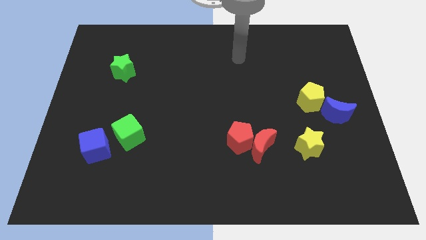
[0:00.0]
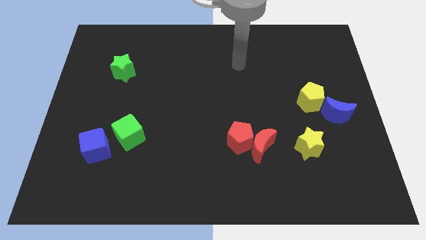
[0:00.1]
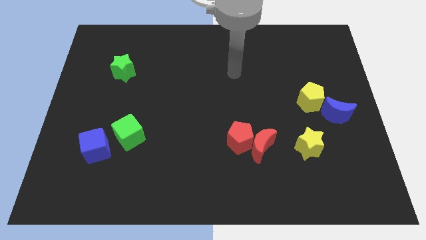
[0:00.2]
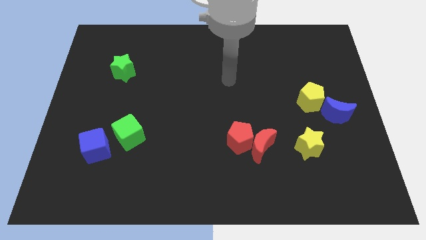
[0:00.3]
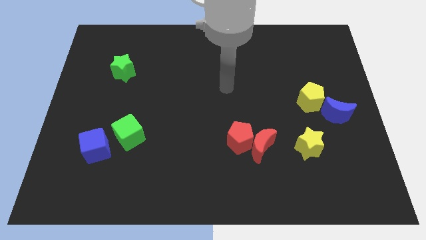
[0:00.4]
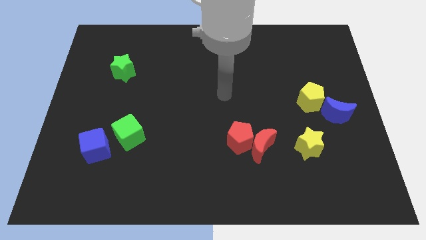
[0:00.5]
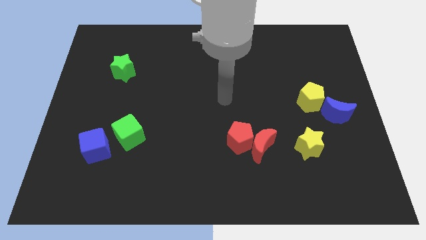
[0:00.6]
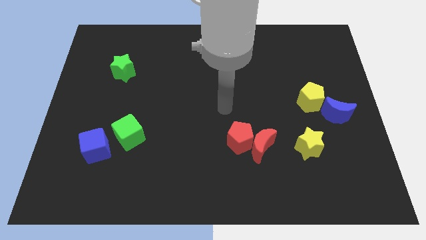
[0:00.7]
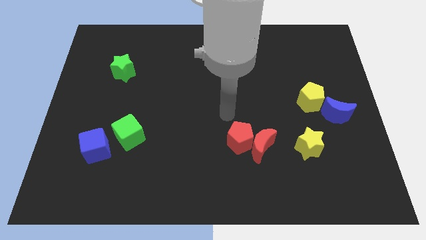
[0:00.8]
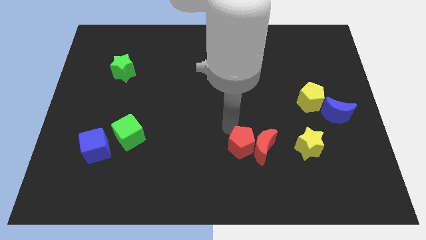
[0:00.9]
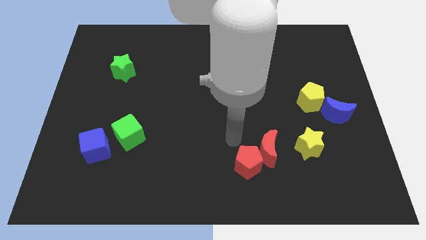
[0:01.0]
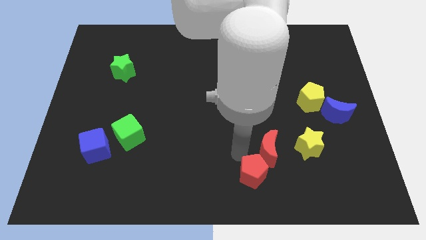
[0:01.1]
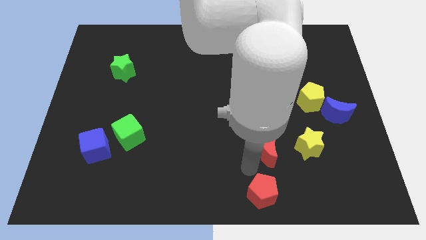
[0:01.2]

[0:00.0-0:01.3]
pull the red moon apart from the red pentagon

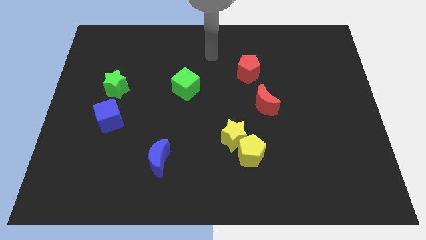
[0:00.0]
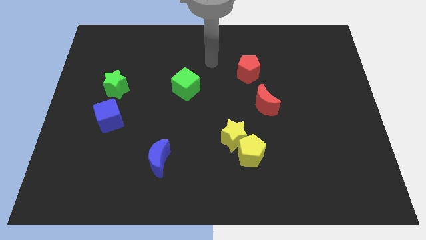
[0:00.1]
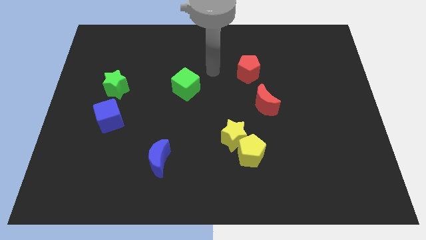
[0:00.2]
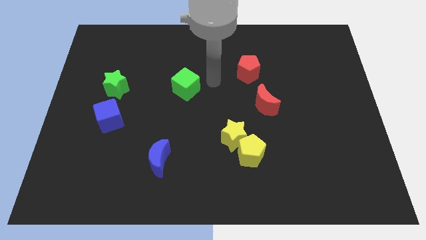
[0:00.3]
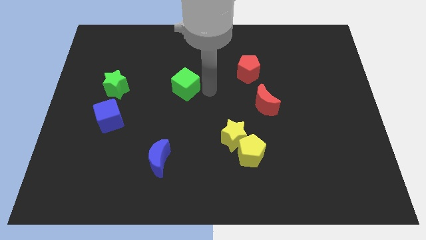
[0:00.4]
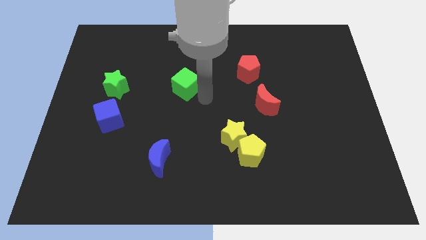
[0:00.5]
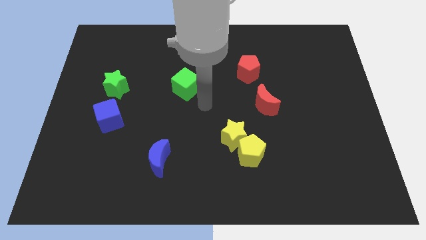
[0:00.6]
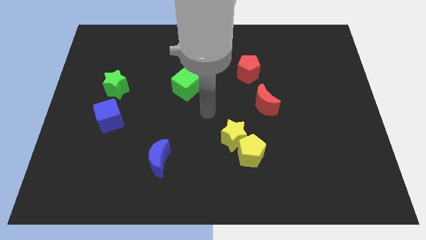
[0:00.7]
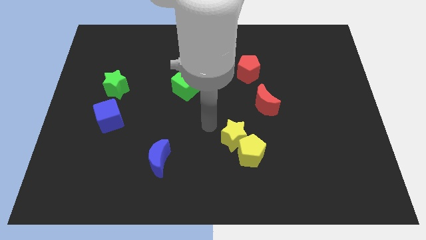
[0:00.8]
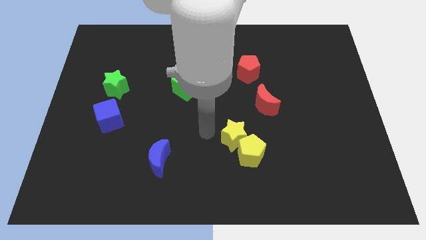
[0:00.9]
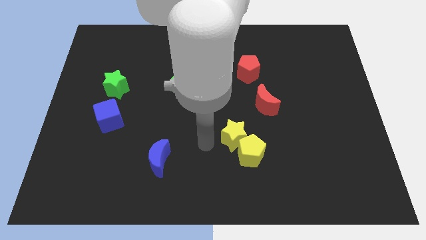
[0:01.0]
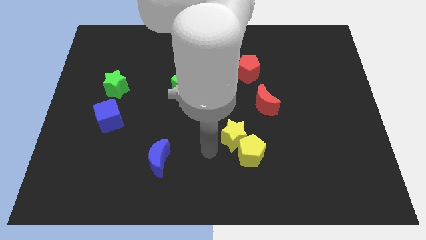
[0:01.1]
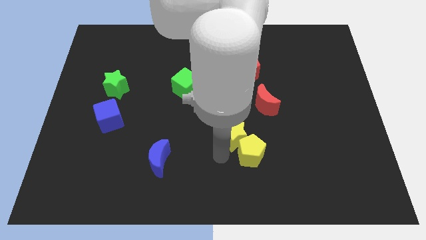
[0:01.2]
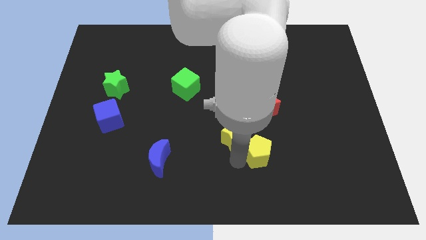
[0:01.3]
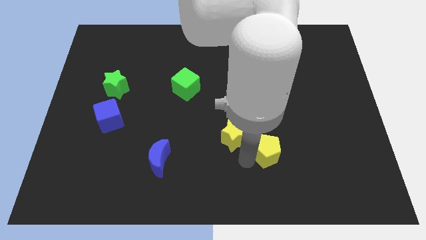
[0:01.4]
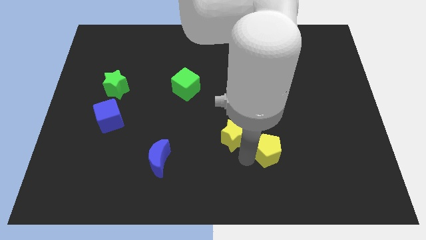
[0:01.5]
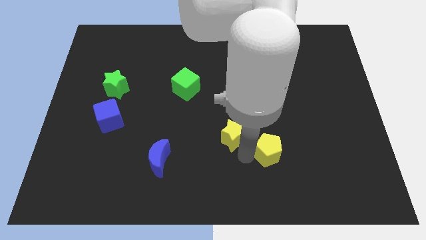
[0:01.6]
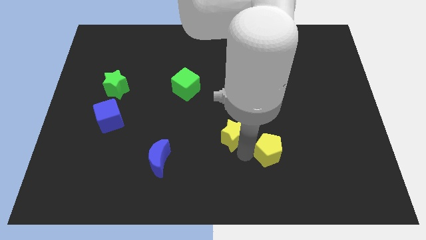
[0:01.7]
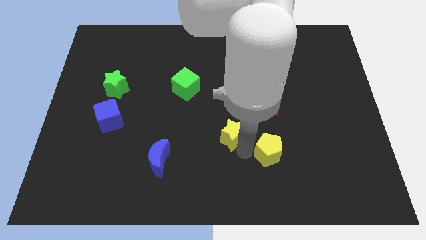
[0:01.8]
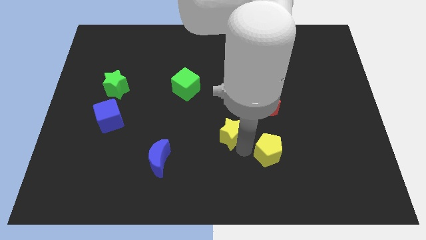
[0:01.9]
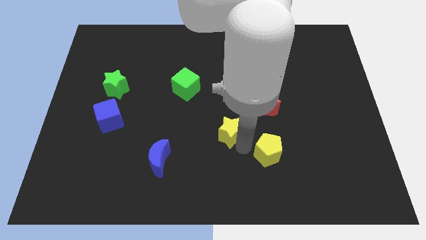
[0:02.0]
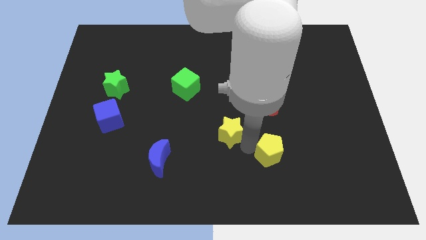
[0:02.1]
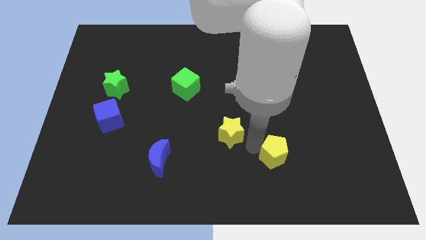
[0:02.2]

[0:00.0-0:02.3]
separate the yellow star from the yellow pentagon

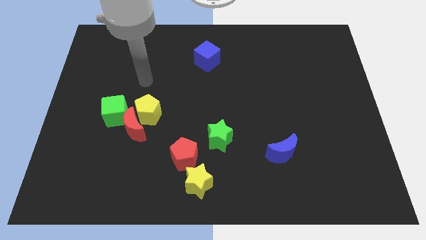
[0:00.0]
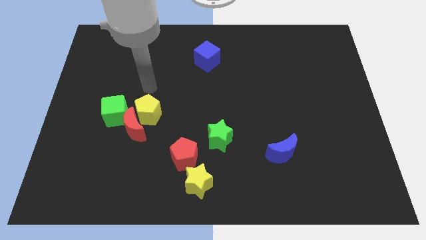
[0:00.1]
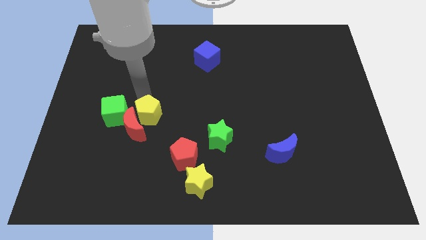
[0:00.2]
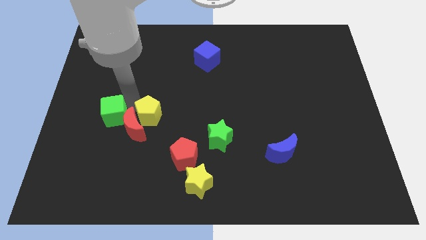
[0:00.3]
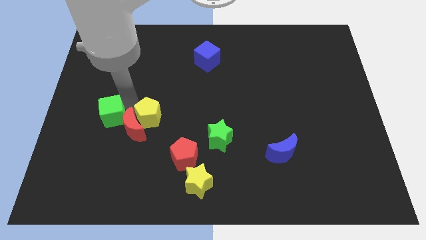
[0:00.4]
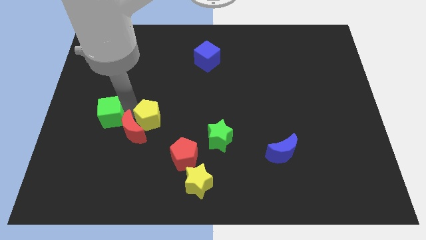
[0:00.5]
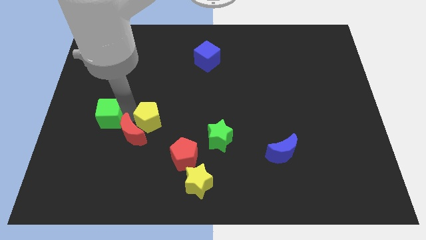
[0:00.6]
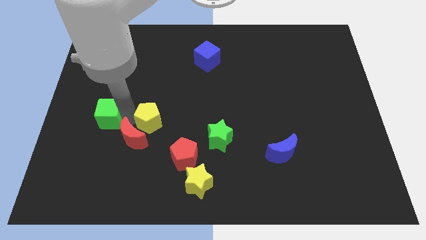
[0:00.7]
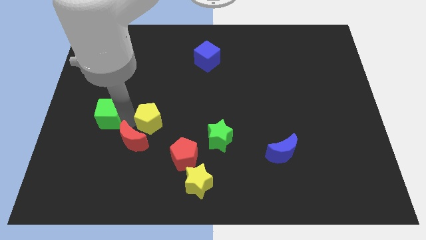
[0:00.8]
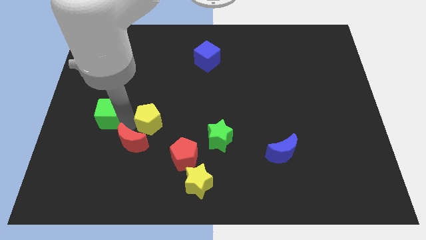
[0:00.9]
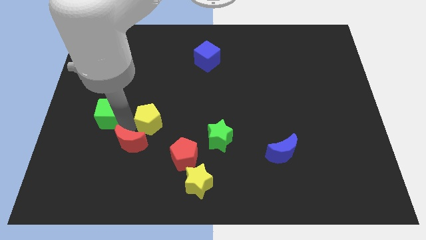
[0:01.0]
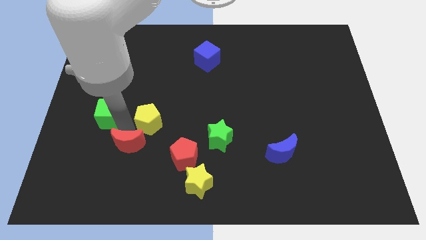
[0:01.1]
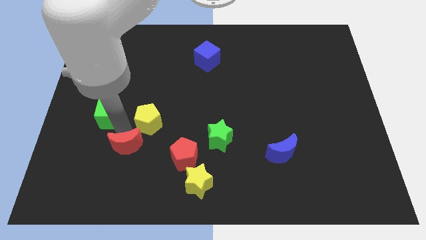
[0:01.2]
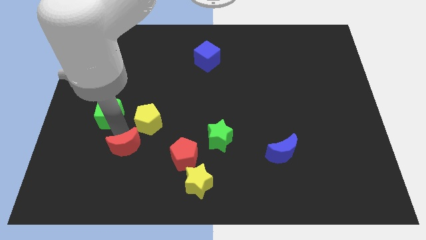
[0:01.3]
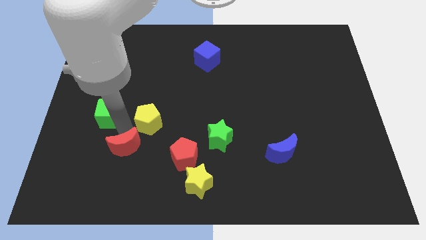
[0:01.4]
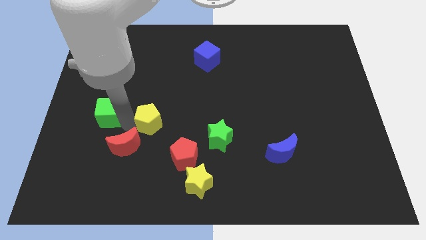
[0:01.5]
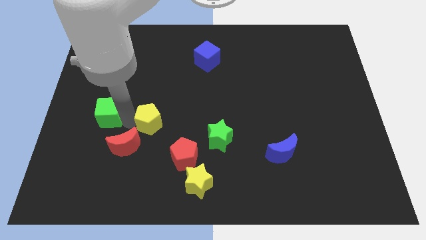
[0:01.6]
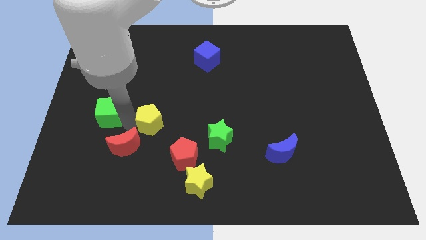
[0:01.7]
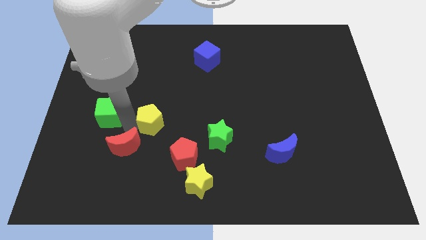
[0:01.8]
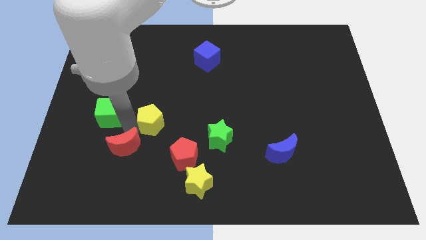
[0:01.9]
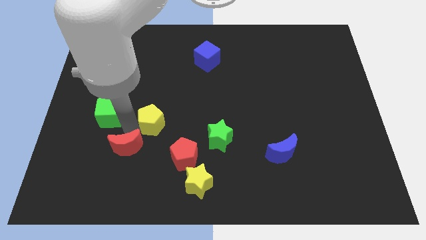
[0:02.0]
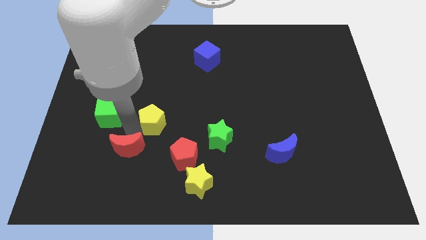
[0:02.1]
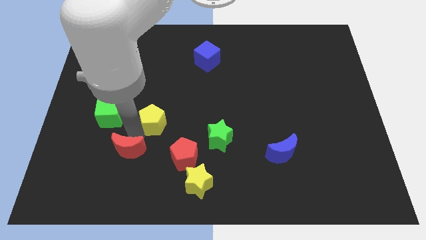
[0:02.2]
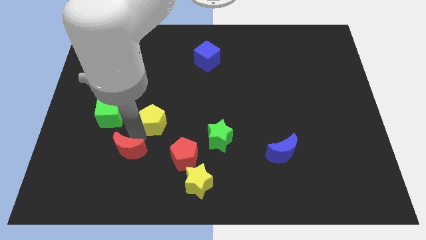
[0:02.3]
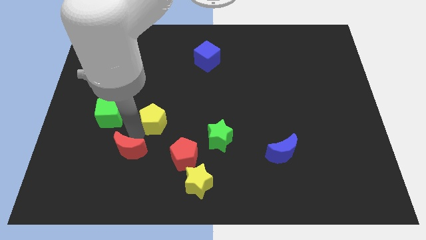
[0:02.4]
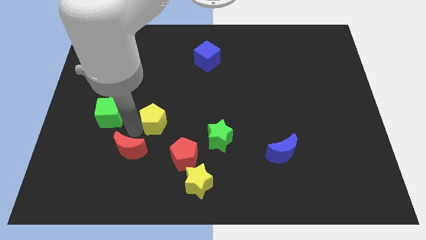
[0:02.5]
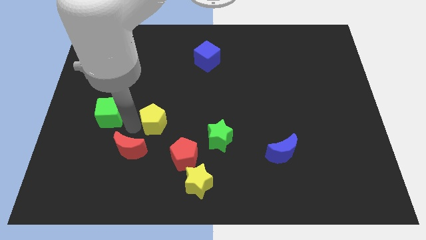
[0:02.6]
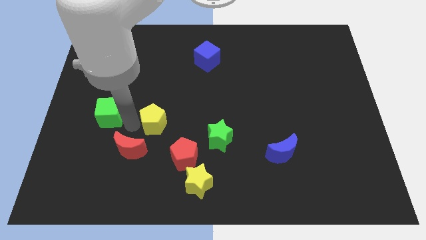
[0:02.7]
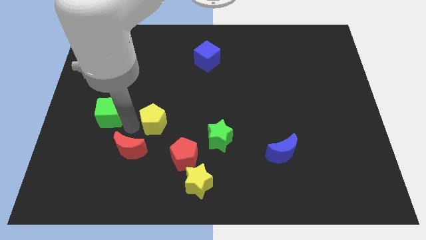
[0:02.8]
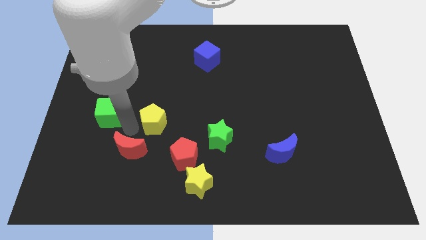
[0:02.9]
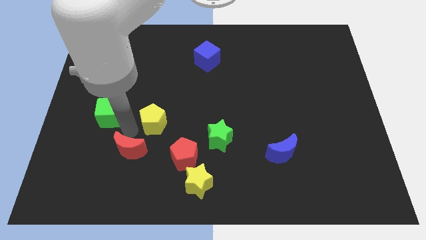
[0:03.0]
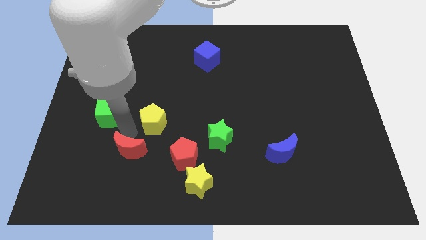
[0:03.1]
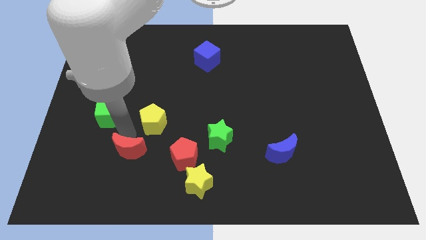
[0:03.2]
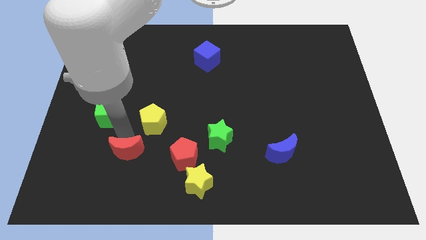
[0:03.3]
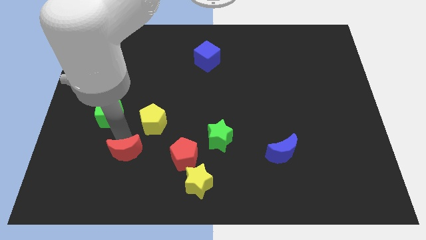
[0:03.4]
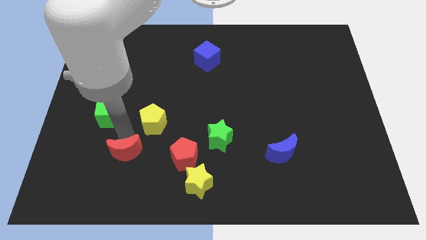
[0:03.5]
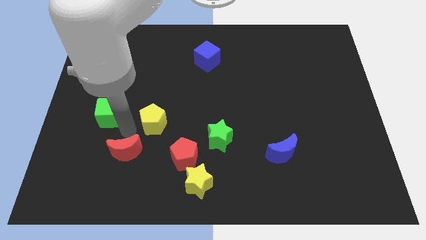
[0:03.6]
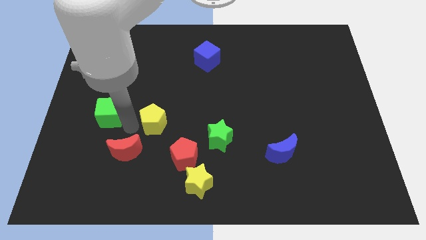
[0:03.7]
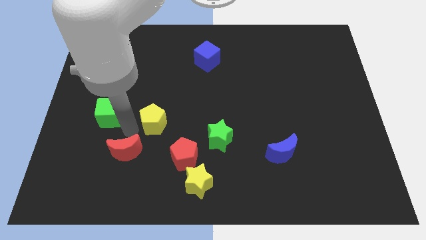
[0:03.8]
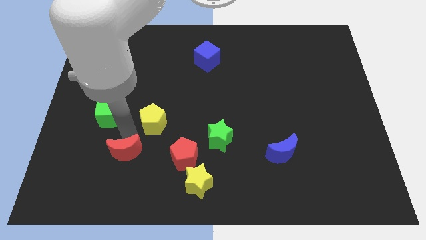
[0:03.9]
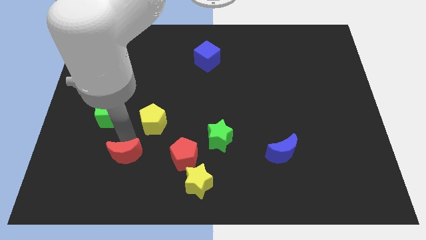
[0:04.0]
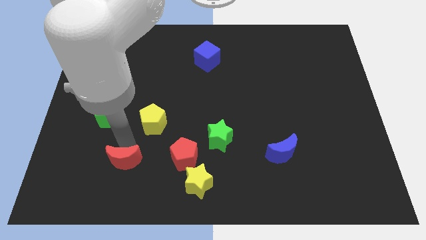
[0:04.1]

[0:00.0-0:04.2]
move the red moon away from the yellow pentagon and green cube

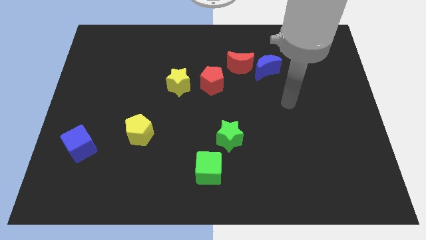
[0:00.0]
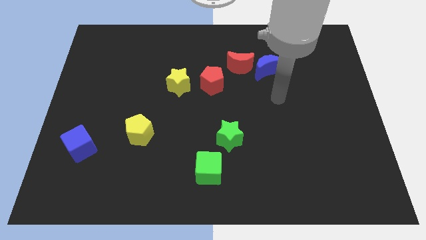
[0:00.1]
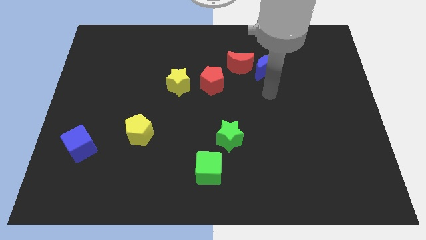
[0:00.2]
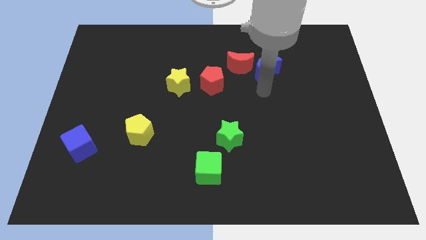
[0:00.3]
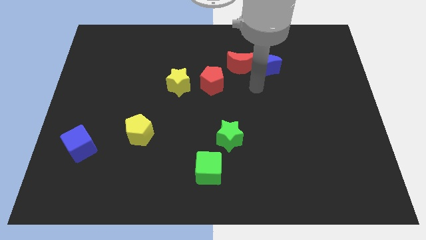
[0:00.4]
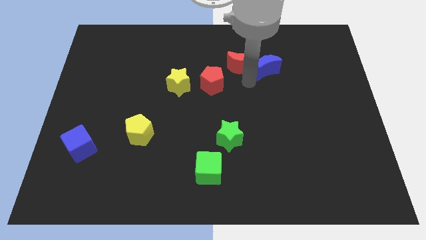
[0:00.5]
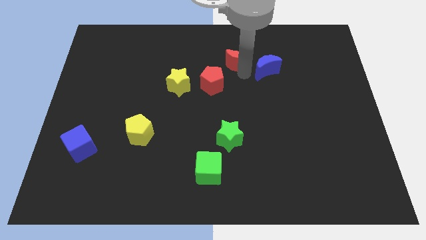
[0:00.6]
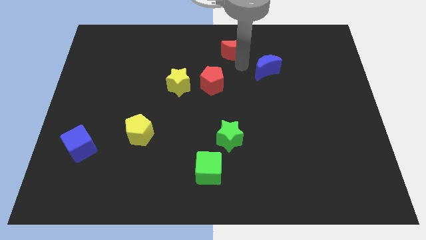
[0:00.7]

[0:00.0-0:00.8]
move the blue moon away from the red moon

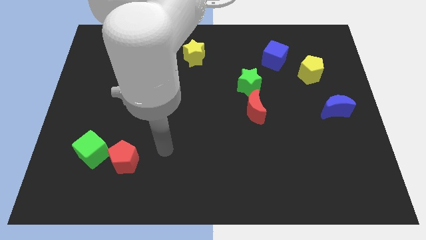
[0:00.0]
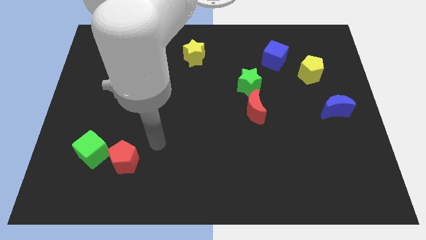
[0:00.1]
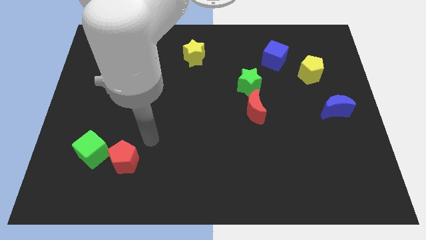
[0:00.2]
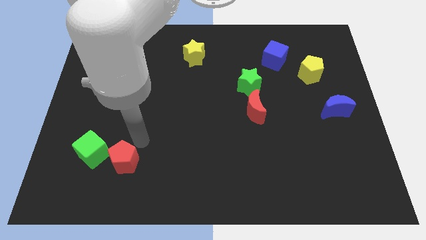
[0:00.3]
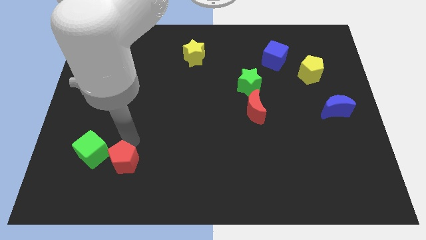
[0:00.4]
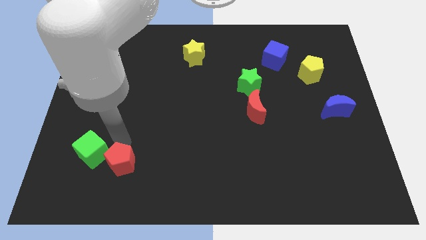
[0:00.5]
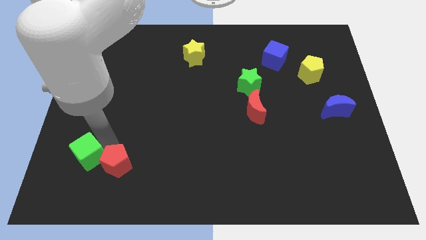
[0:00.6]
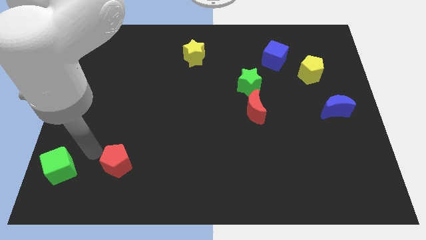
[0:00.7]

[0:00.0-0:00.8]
pull the red pentagon apart from the green cube
